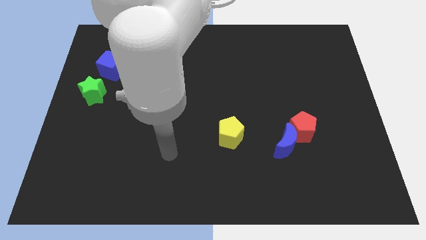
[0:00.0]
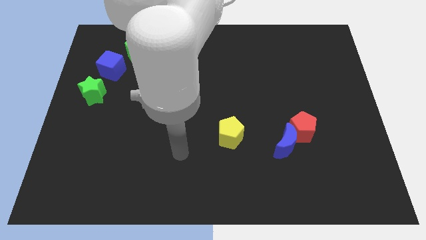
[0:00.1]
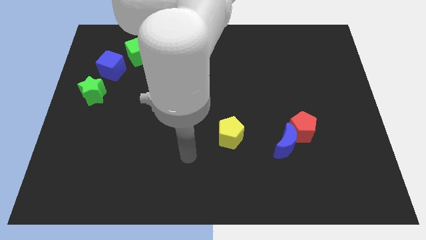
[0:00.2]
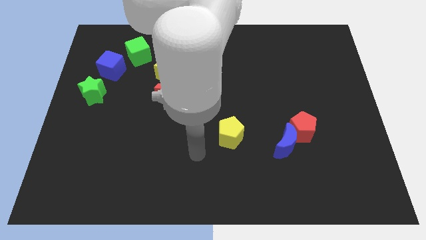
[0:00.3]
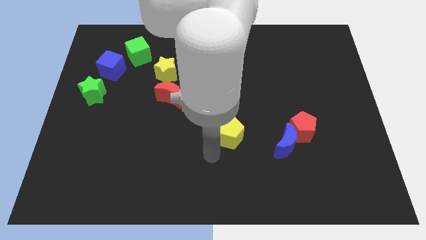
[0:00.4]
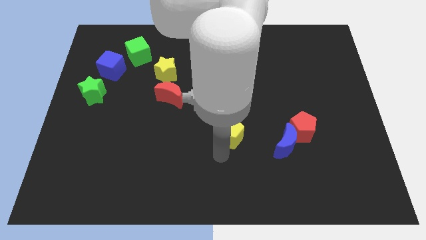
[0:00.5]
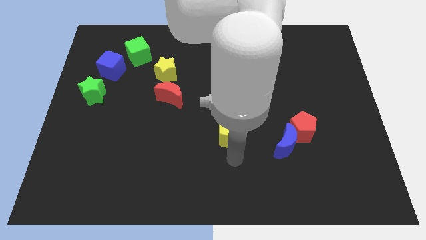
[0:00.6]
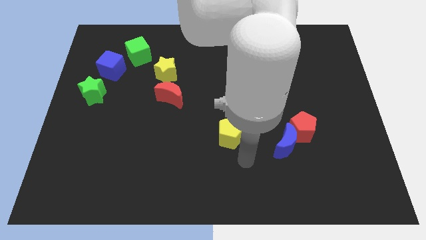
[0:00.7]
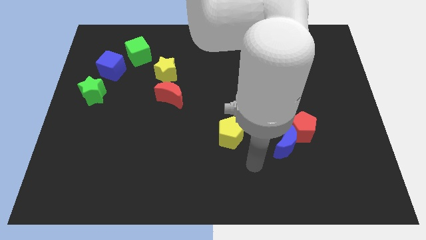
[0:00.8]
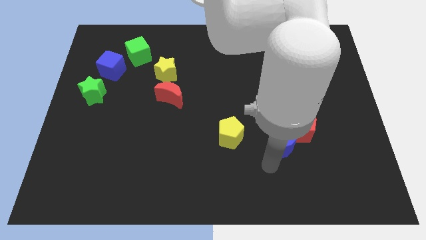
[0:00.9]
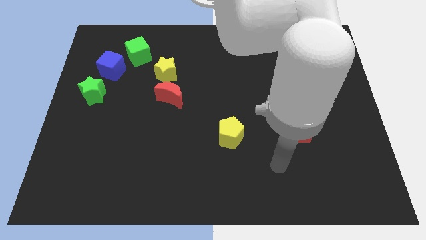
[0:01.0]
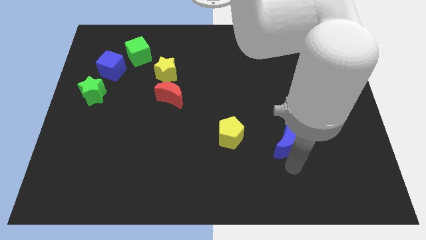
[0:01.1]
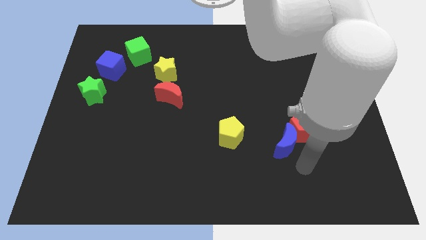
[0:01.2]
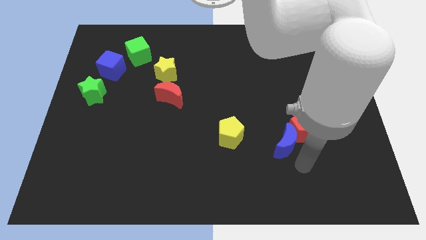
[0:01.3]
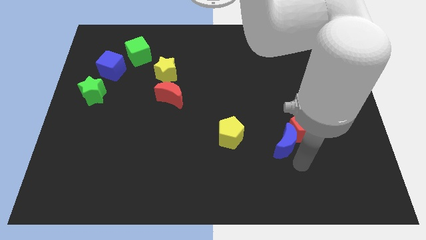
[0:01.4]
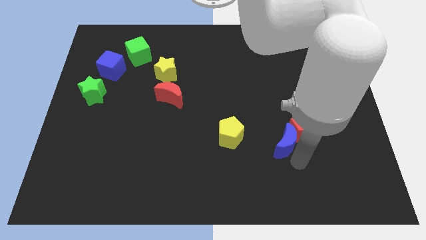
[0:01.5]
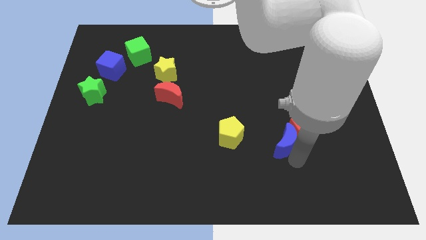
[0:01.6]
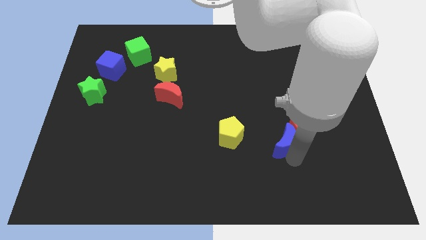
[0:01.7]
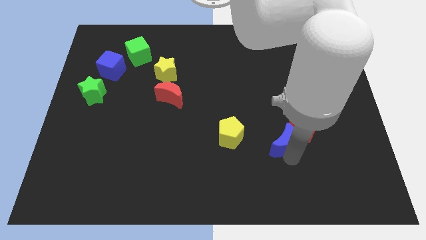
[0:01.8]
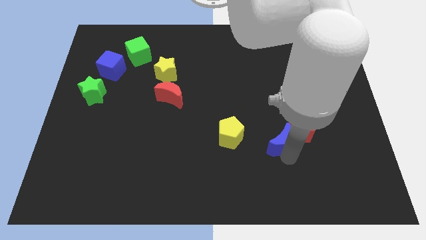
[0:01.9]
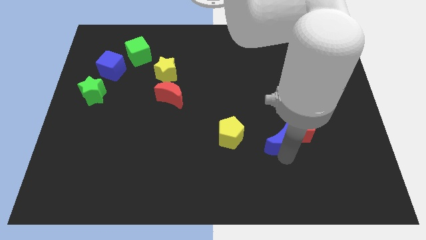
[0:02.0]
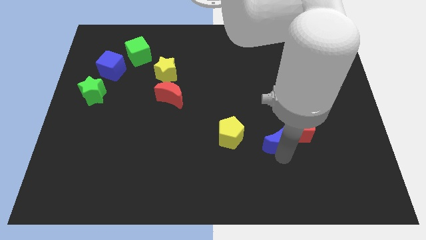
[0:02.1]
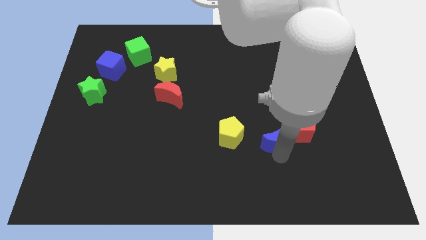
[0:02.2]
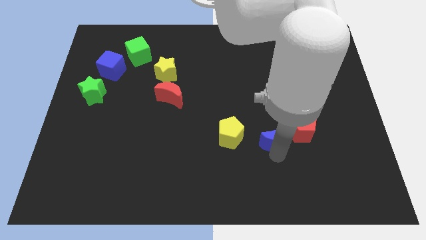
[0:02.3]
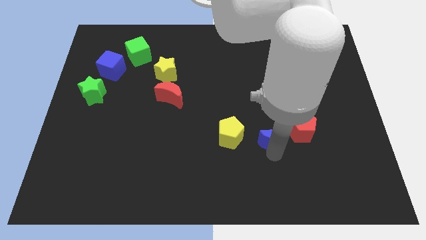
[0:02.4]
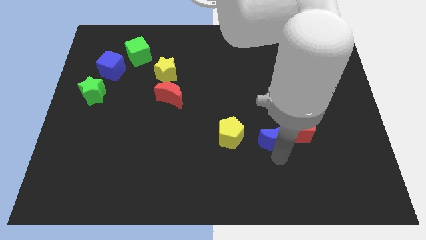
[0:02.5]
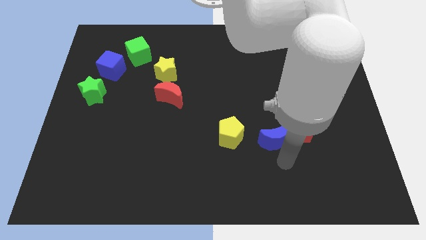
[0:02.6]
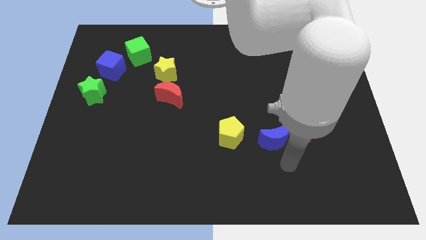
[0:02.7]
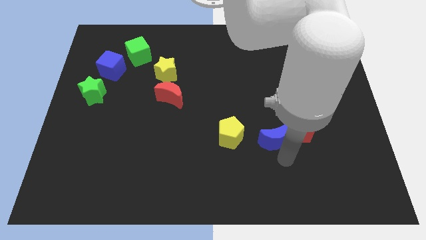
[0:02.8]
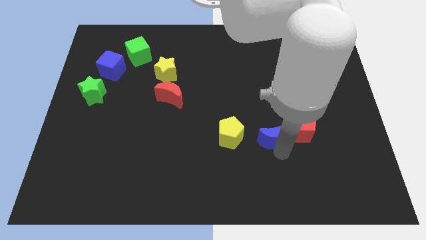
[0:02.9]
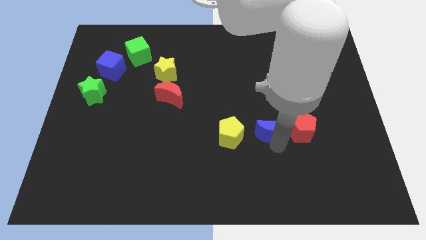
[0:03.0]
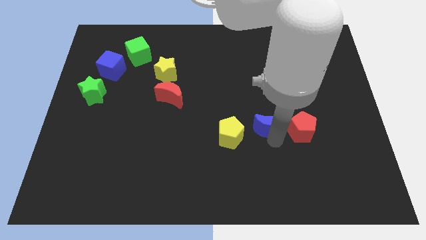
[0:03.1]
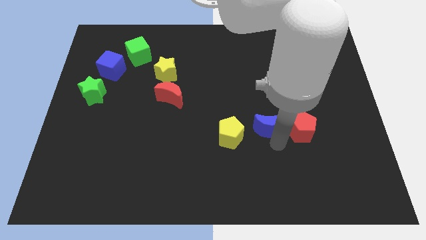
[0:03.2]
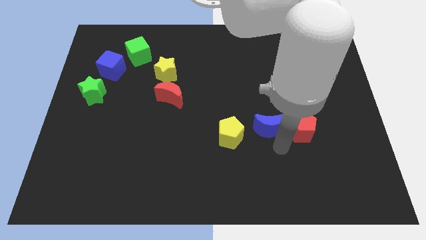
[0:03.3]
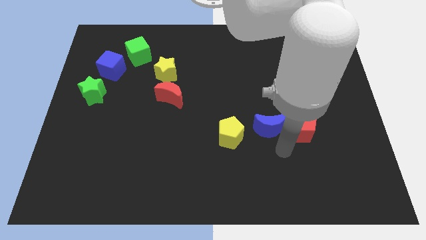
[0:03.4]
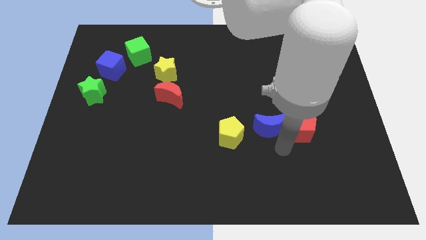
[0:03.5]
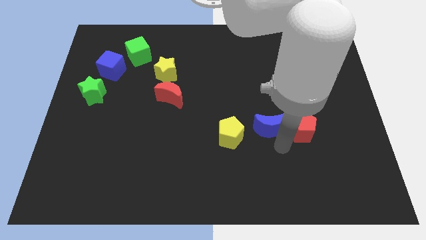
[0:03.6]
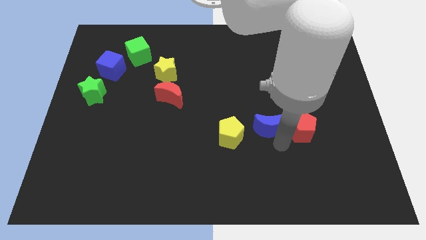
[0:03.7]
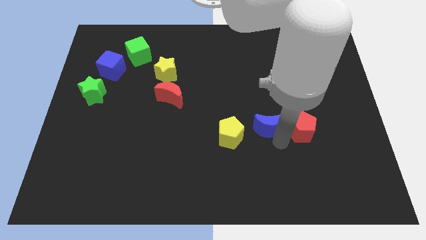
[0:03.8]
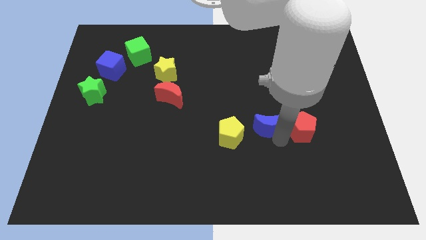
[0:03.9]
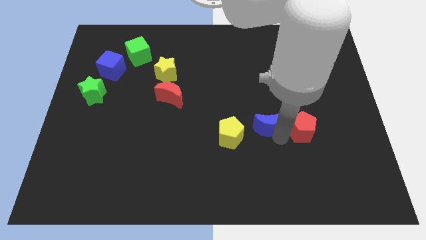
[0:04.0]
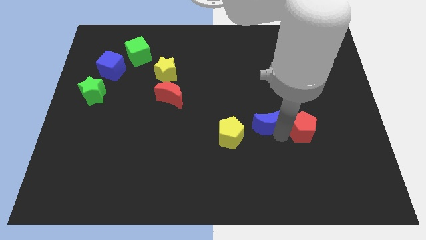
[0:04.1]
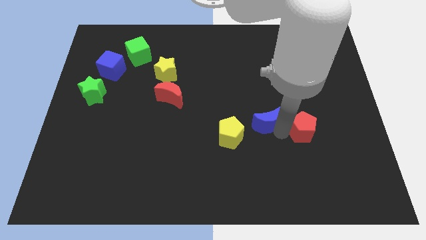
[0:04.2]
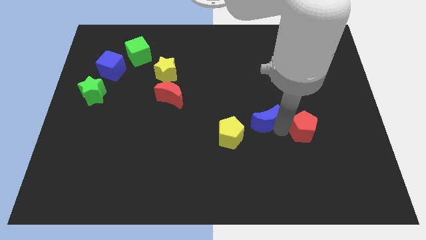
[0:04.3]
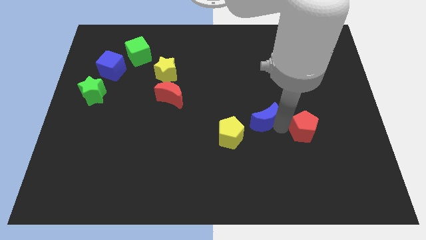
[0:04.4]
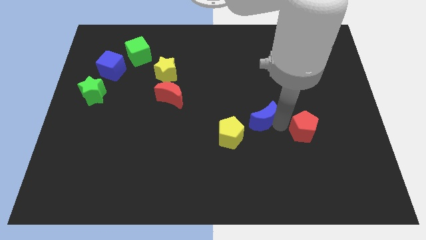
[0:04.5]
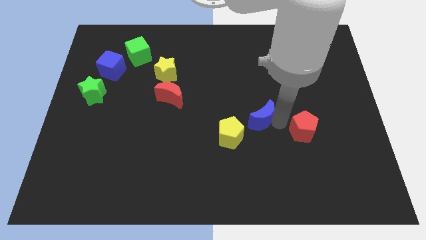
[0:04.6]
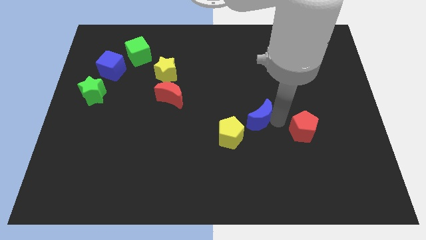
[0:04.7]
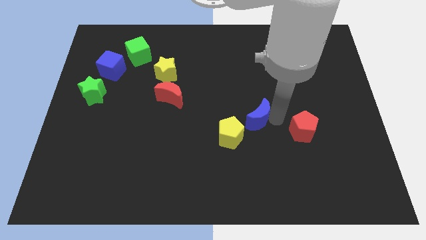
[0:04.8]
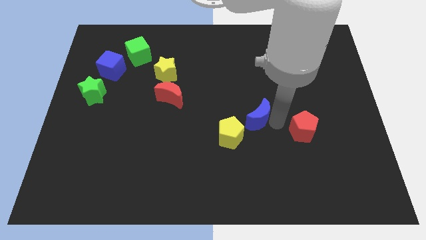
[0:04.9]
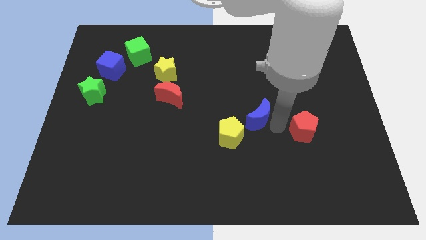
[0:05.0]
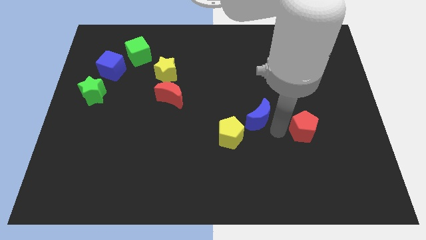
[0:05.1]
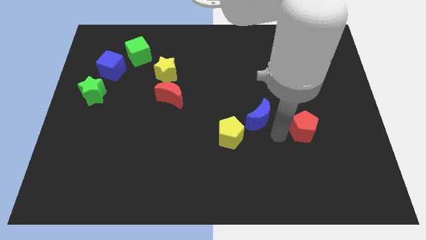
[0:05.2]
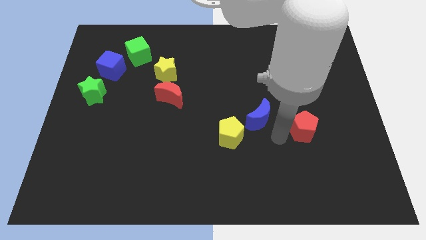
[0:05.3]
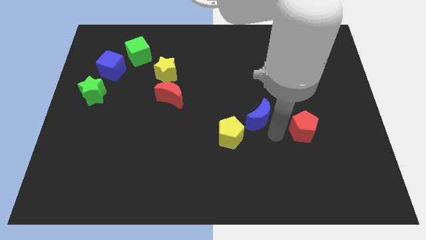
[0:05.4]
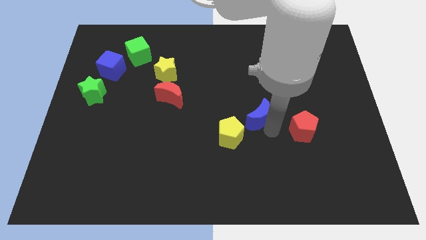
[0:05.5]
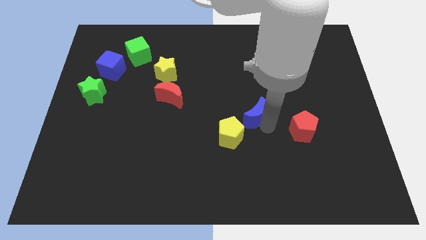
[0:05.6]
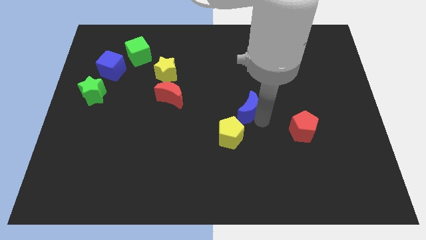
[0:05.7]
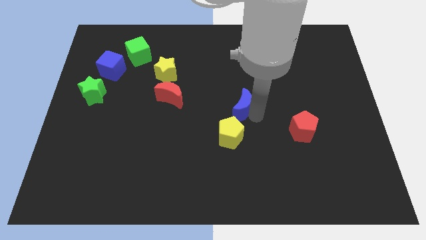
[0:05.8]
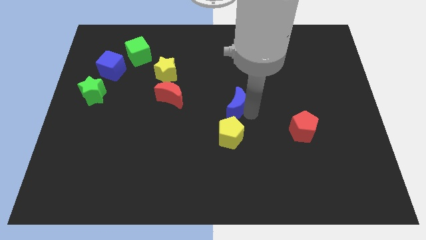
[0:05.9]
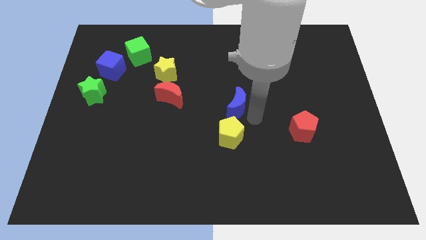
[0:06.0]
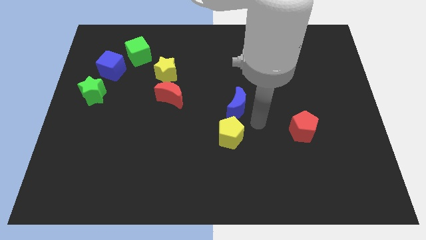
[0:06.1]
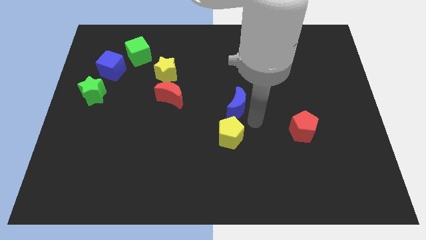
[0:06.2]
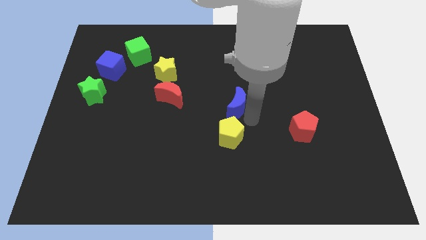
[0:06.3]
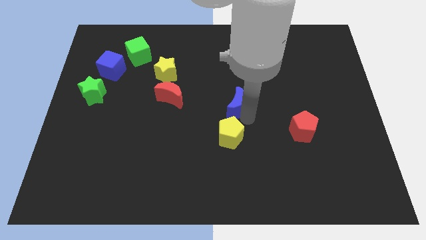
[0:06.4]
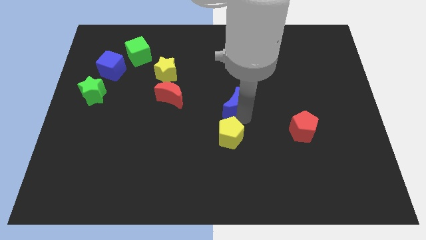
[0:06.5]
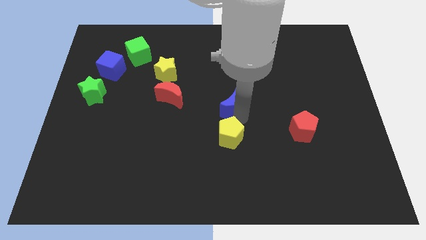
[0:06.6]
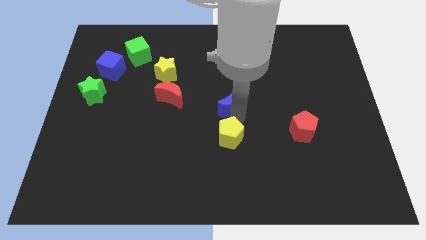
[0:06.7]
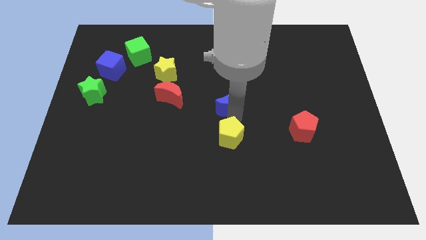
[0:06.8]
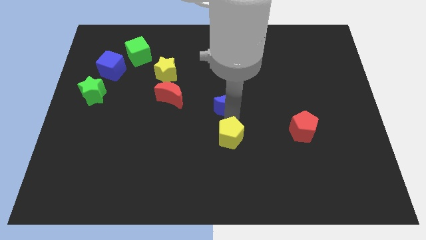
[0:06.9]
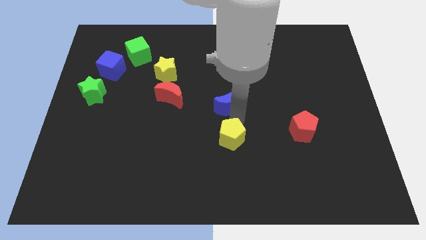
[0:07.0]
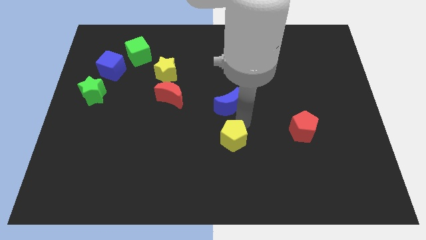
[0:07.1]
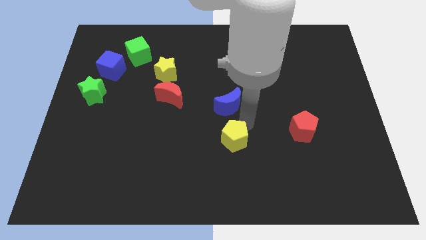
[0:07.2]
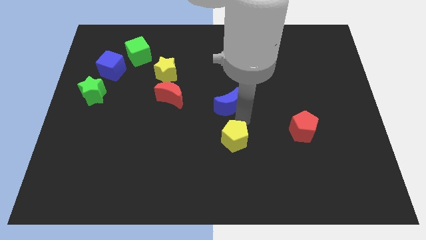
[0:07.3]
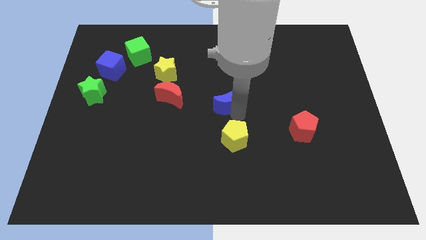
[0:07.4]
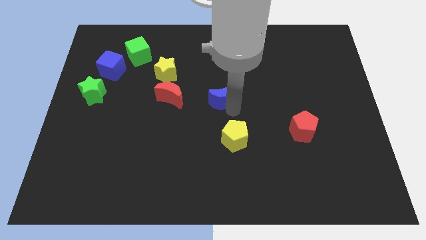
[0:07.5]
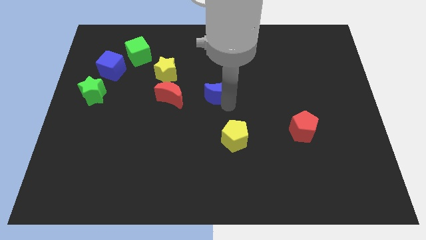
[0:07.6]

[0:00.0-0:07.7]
move the blue moon up and left
